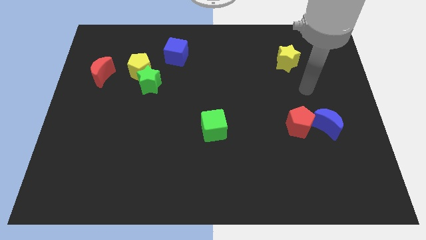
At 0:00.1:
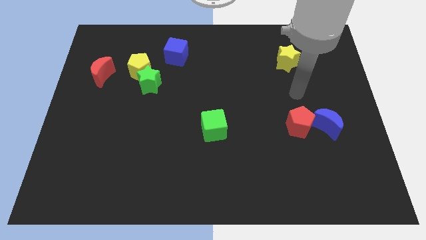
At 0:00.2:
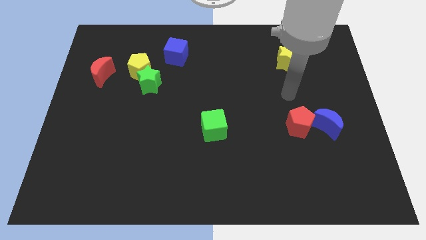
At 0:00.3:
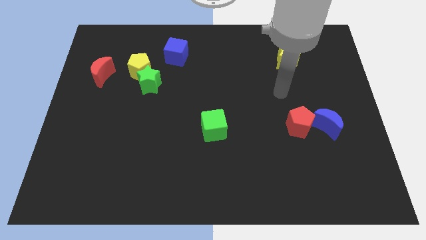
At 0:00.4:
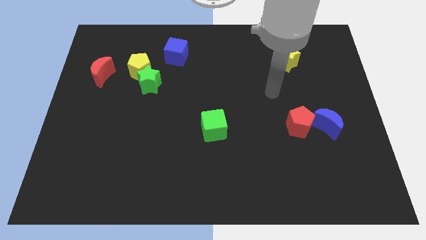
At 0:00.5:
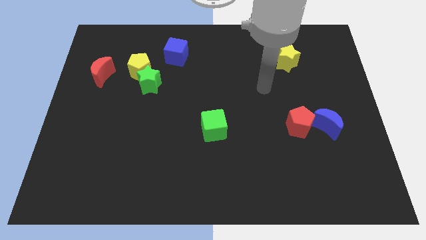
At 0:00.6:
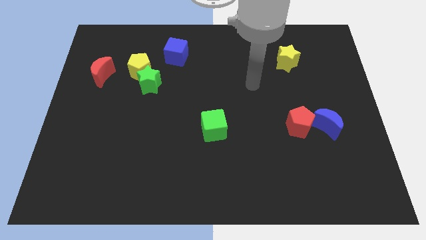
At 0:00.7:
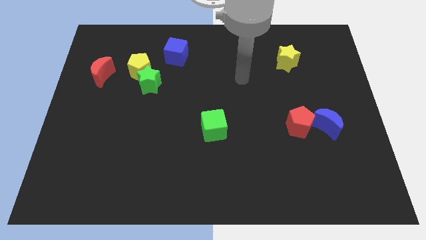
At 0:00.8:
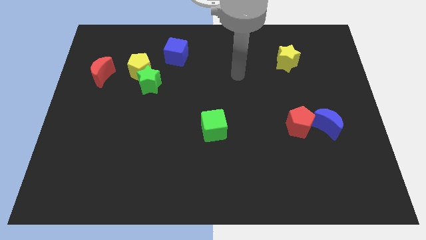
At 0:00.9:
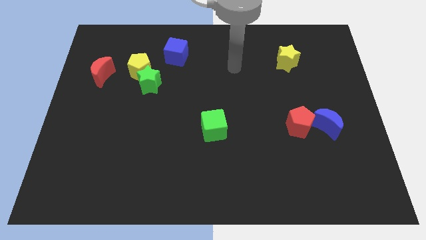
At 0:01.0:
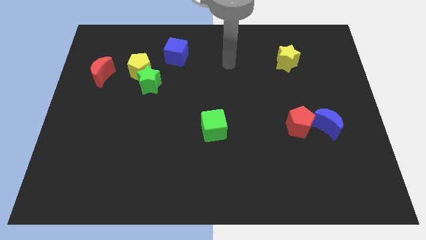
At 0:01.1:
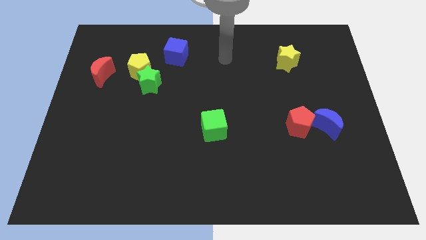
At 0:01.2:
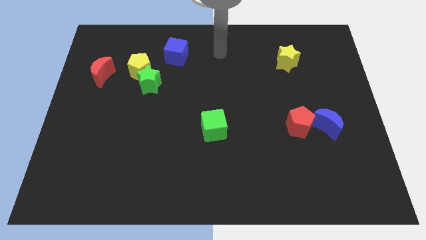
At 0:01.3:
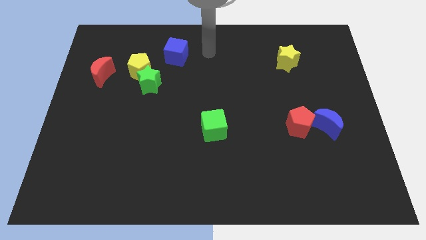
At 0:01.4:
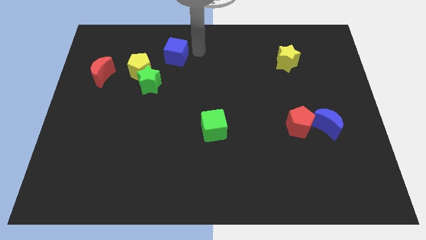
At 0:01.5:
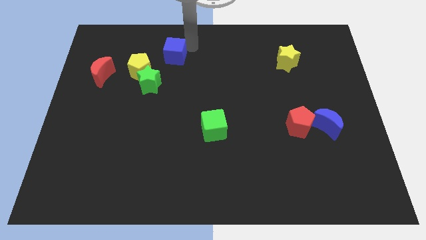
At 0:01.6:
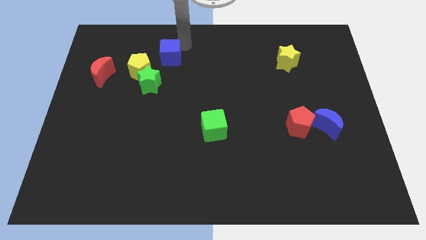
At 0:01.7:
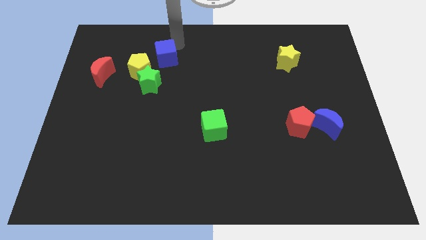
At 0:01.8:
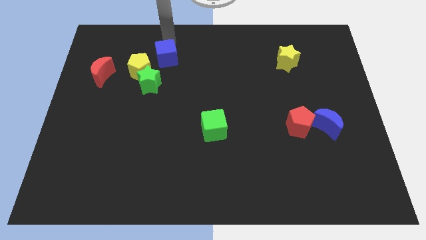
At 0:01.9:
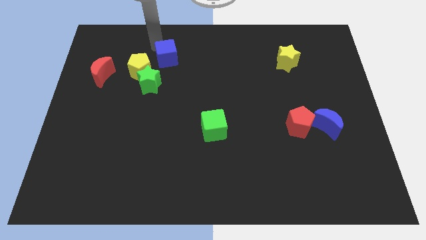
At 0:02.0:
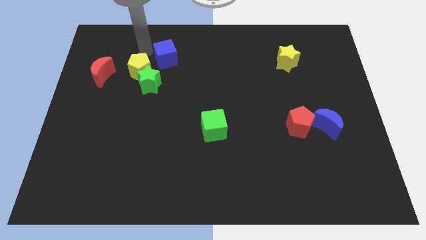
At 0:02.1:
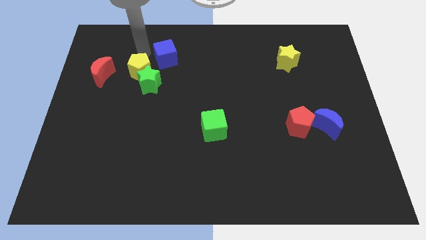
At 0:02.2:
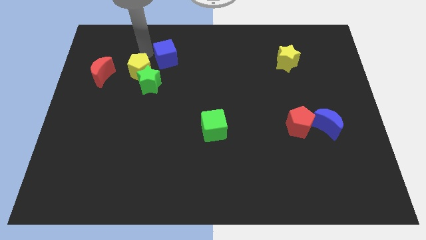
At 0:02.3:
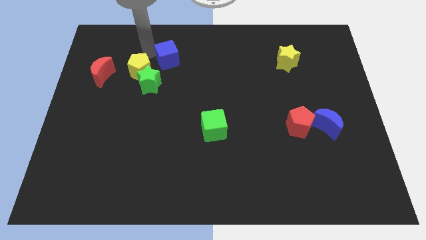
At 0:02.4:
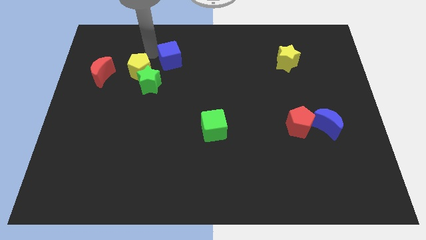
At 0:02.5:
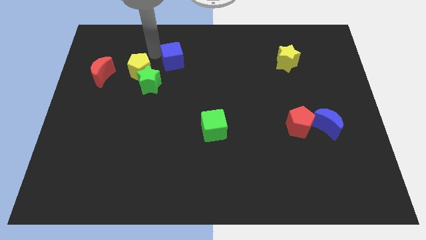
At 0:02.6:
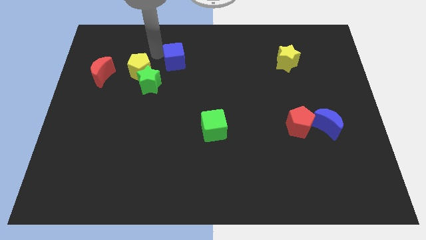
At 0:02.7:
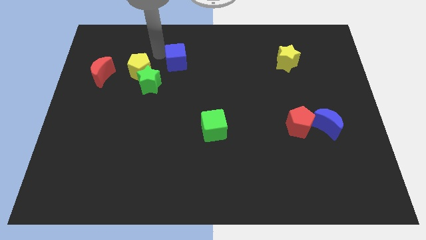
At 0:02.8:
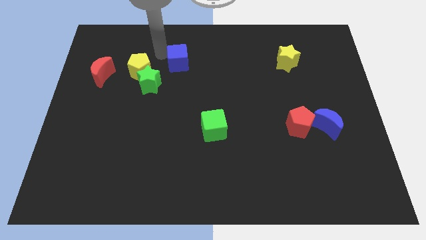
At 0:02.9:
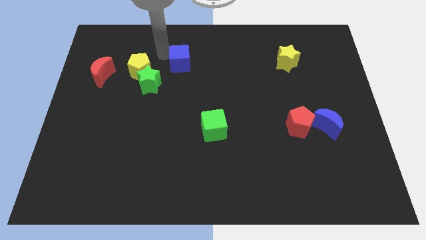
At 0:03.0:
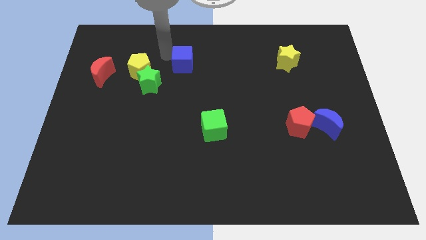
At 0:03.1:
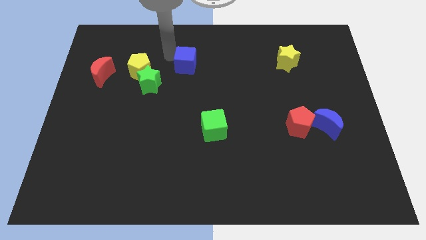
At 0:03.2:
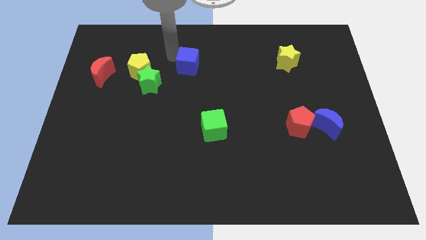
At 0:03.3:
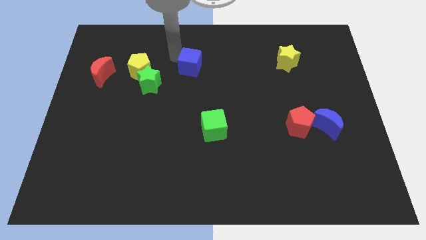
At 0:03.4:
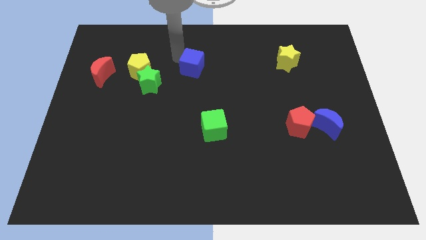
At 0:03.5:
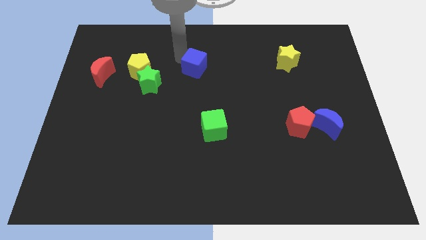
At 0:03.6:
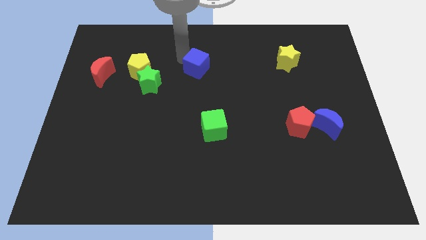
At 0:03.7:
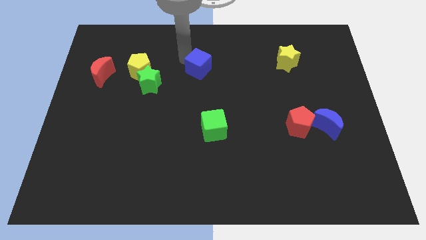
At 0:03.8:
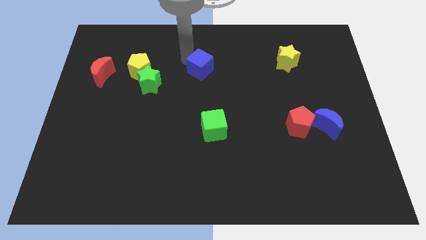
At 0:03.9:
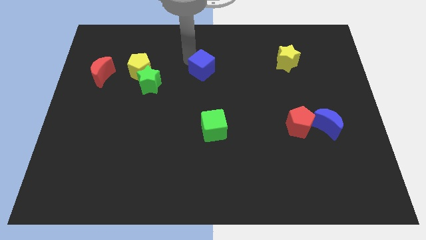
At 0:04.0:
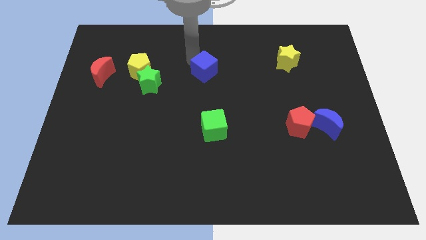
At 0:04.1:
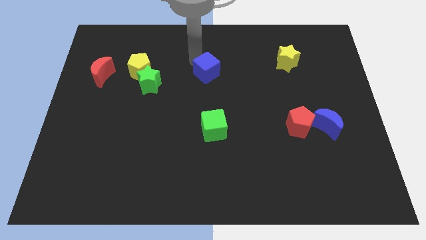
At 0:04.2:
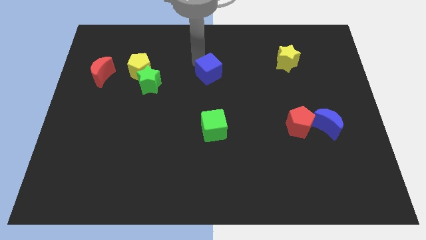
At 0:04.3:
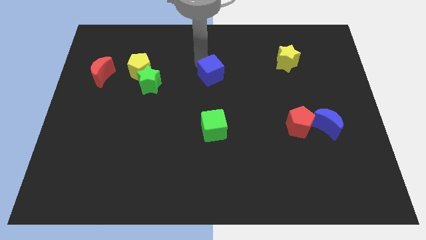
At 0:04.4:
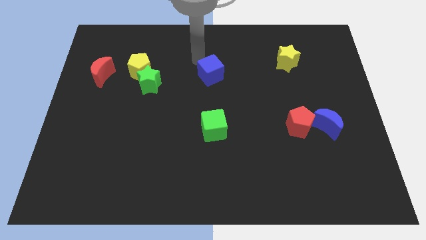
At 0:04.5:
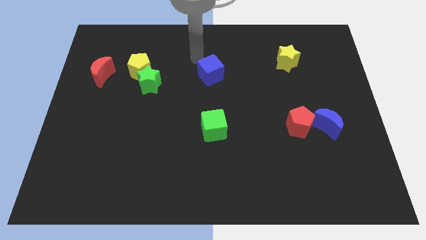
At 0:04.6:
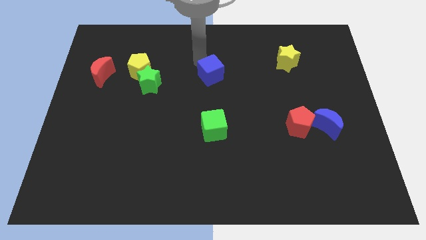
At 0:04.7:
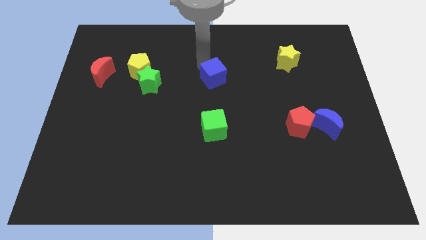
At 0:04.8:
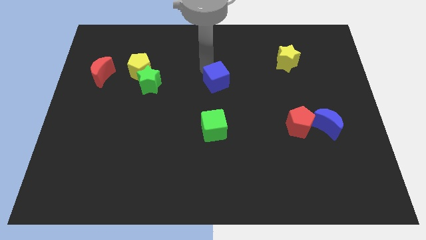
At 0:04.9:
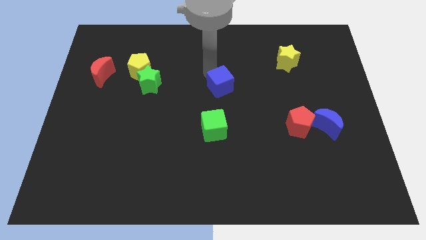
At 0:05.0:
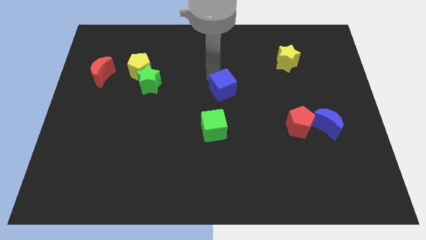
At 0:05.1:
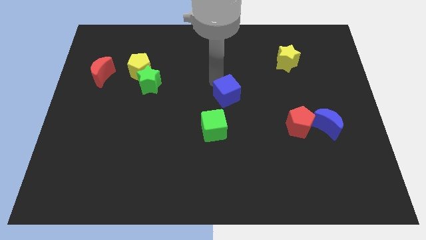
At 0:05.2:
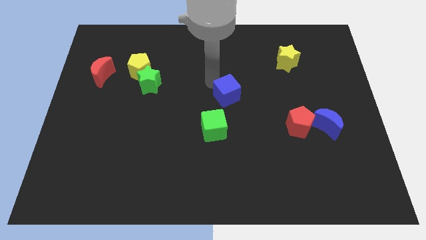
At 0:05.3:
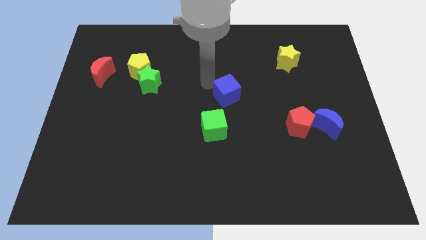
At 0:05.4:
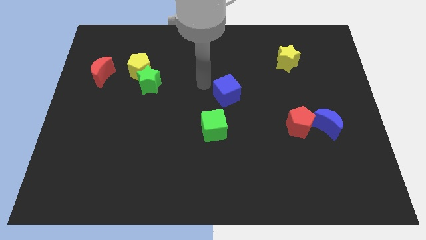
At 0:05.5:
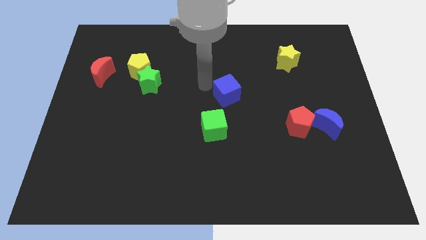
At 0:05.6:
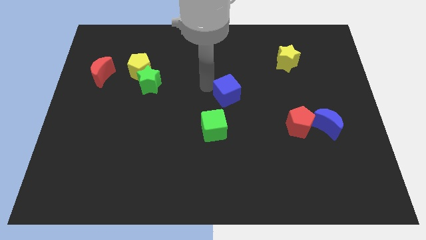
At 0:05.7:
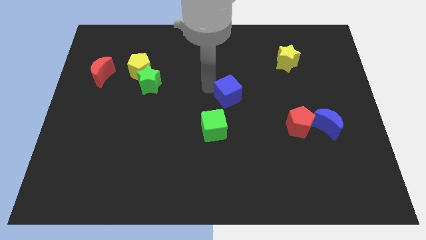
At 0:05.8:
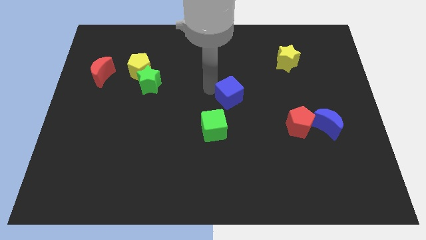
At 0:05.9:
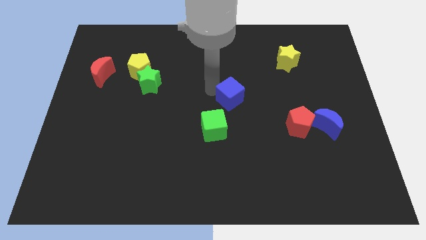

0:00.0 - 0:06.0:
slide the blue cube down and right

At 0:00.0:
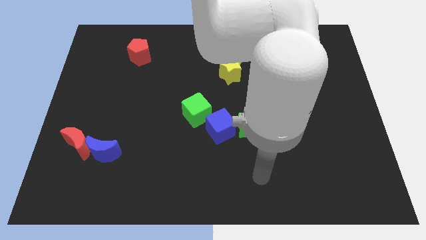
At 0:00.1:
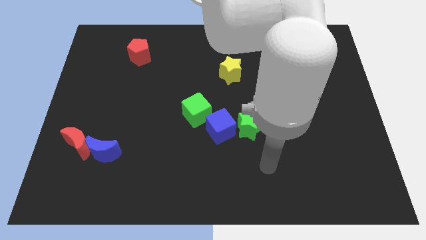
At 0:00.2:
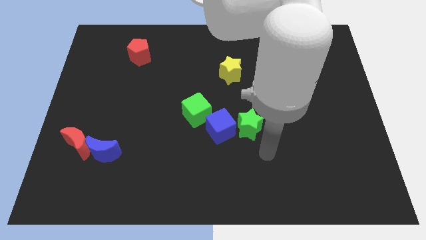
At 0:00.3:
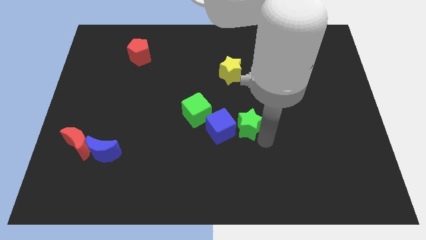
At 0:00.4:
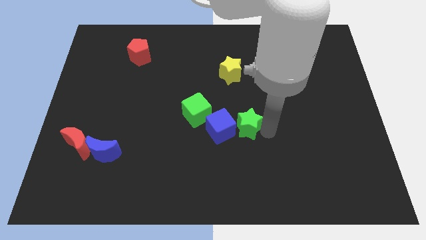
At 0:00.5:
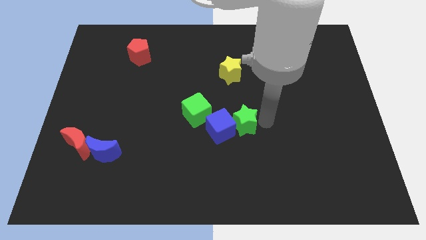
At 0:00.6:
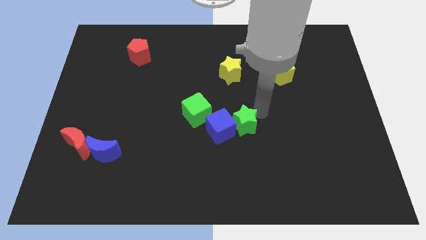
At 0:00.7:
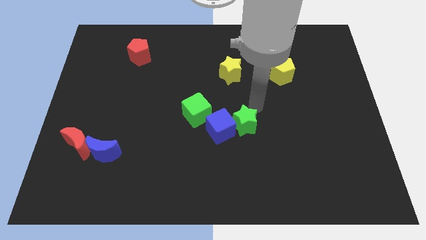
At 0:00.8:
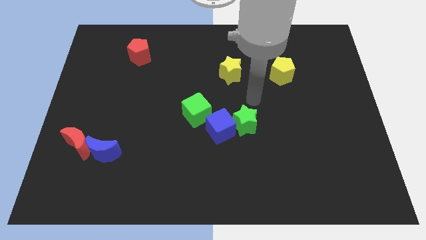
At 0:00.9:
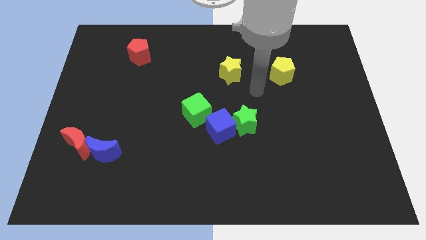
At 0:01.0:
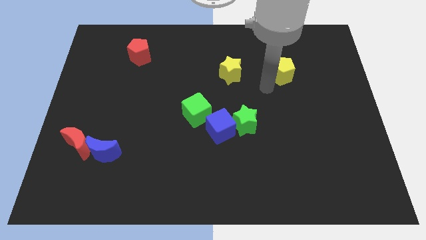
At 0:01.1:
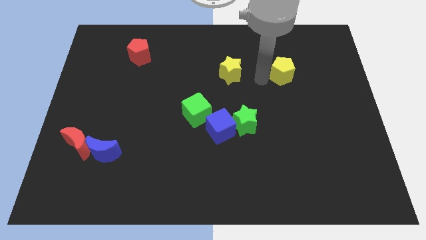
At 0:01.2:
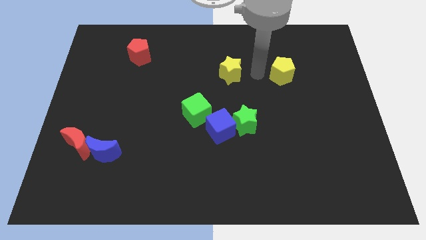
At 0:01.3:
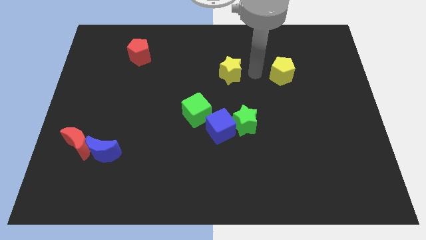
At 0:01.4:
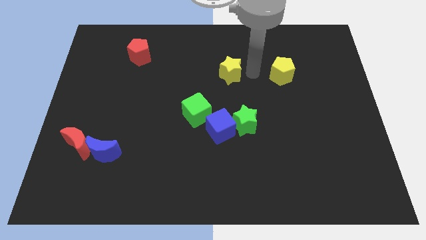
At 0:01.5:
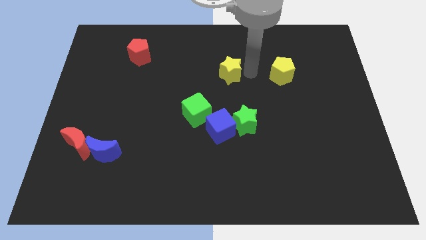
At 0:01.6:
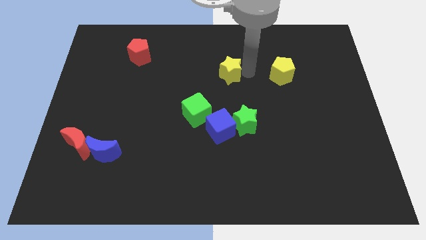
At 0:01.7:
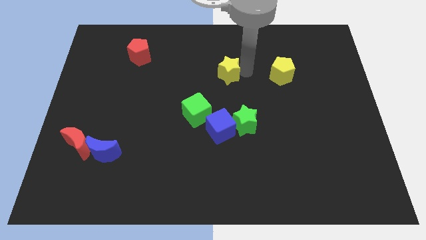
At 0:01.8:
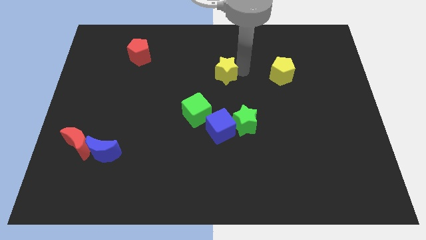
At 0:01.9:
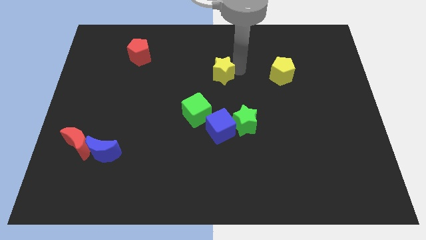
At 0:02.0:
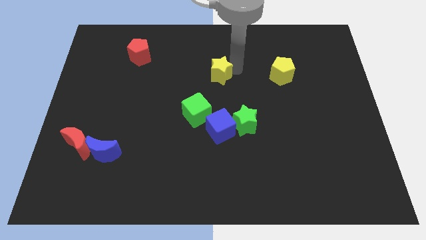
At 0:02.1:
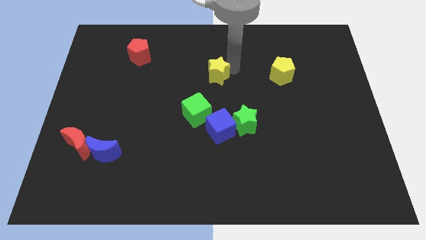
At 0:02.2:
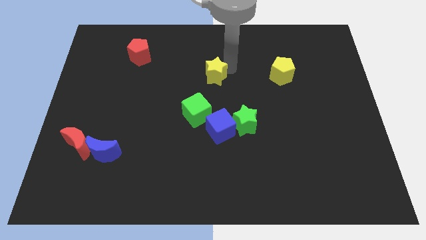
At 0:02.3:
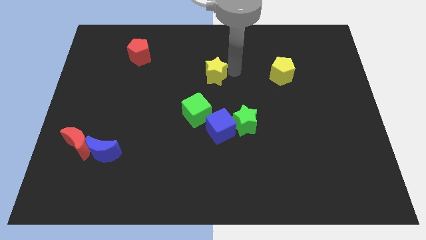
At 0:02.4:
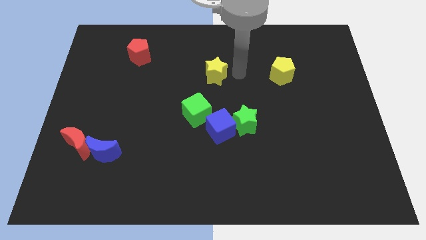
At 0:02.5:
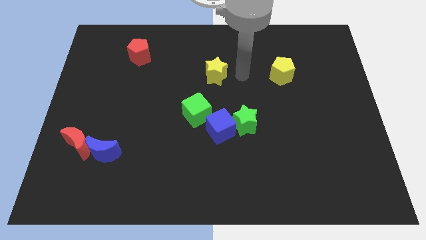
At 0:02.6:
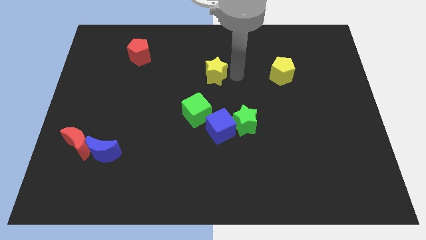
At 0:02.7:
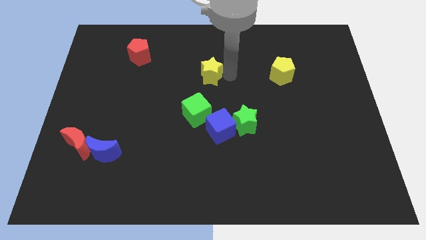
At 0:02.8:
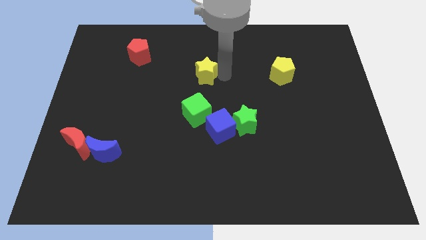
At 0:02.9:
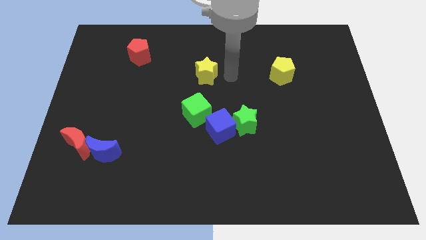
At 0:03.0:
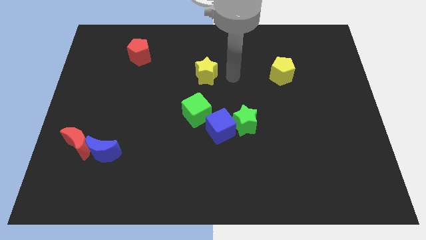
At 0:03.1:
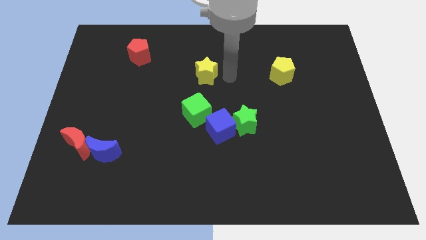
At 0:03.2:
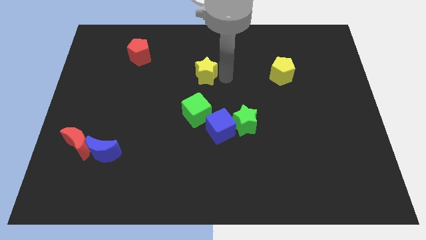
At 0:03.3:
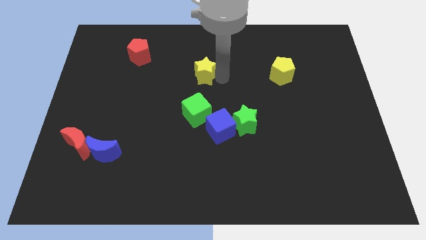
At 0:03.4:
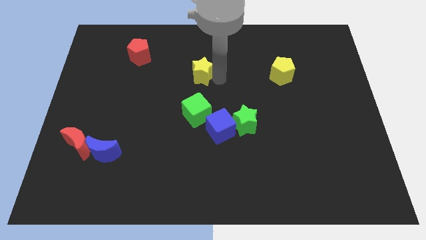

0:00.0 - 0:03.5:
move the yellow star to the left a bit
